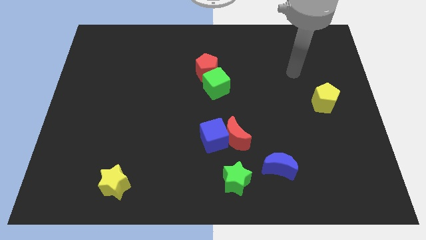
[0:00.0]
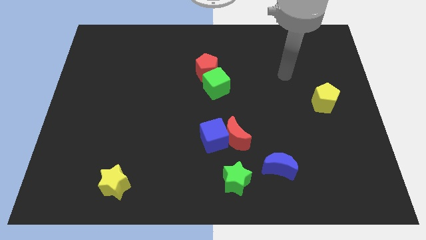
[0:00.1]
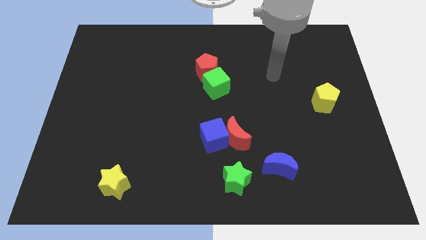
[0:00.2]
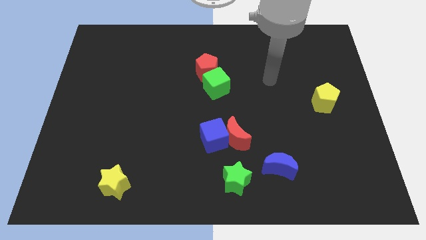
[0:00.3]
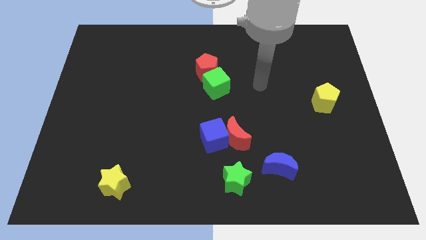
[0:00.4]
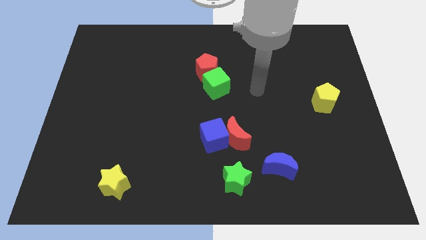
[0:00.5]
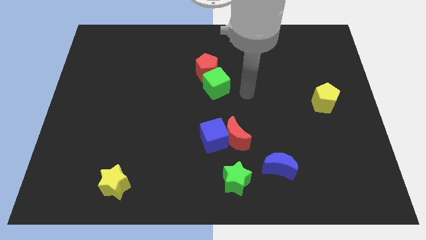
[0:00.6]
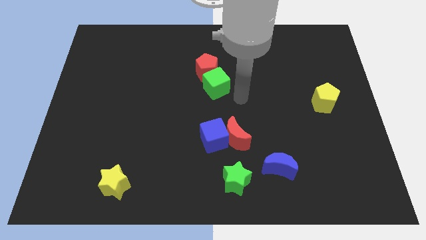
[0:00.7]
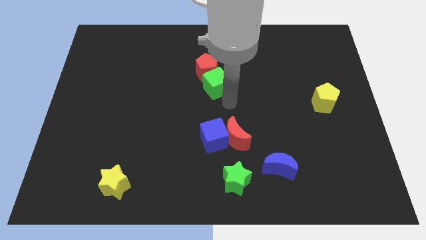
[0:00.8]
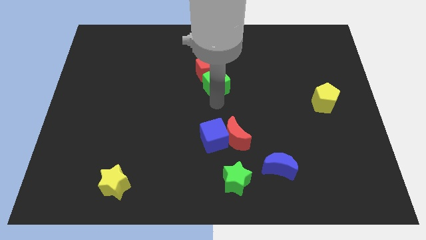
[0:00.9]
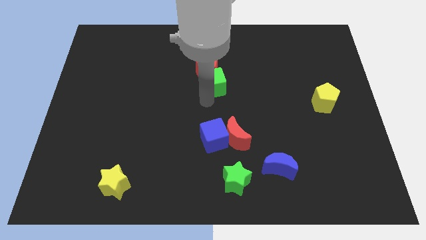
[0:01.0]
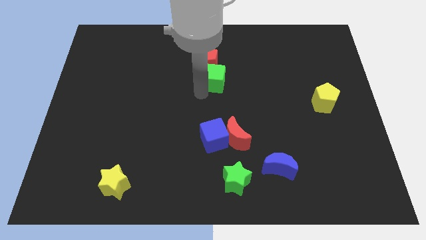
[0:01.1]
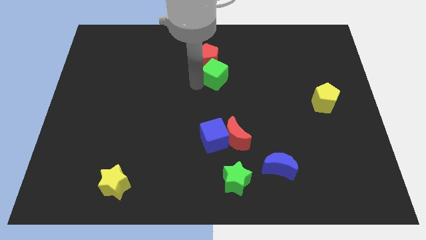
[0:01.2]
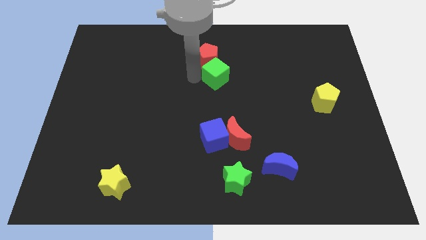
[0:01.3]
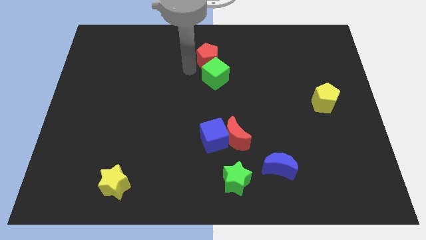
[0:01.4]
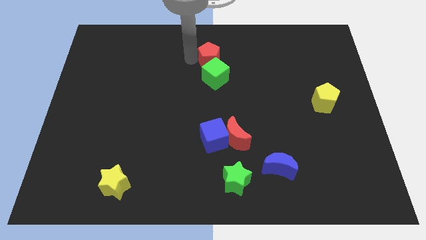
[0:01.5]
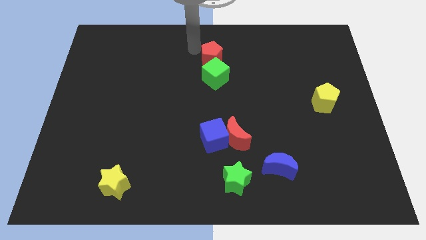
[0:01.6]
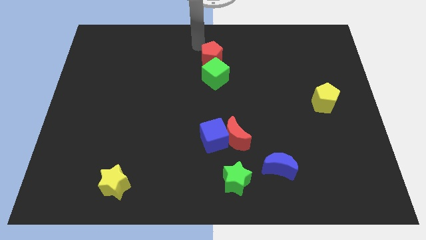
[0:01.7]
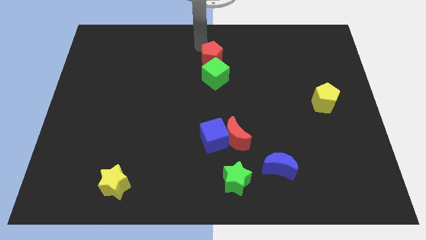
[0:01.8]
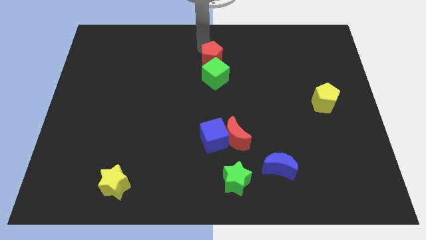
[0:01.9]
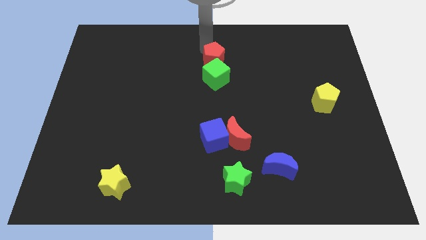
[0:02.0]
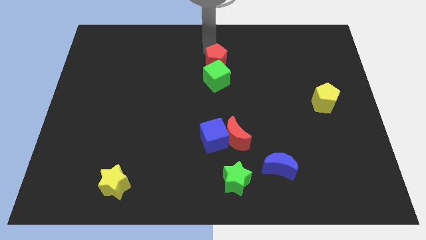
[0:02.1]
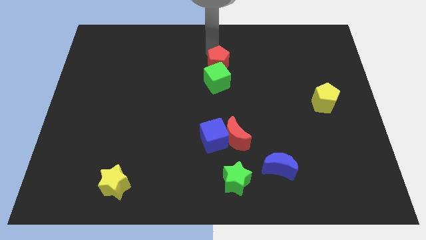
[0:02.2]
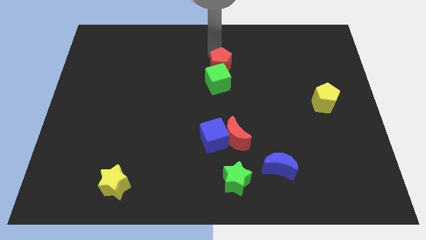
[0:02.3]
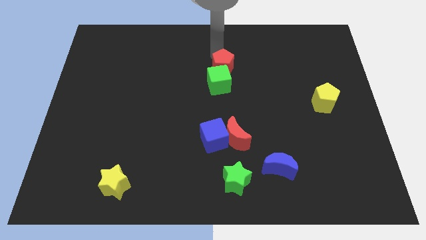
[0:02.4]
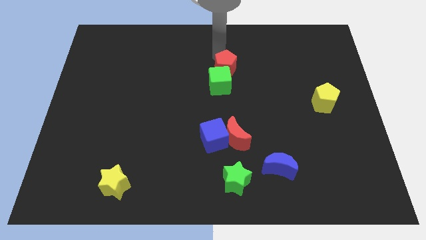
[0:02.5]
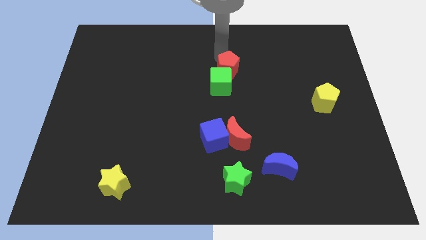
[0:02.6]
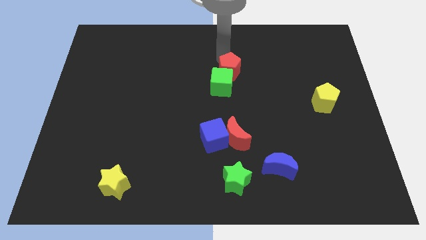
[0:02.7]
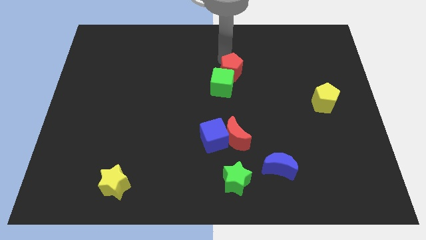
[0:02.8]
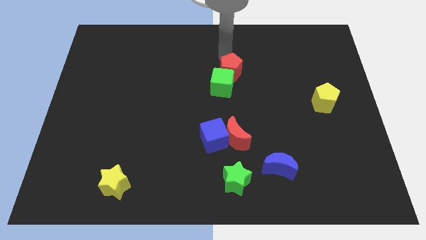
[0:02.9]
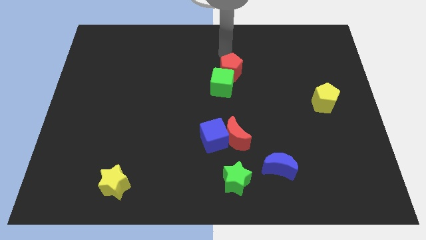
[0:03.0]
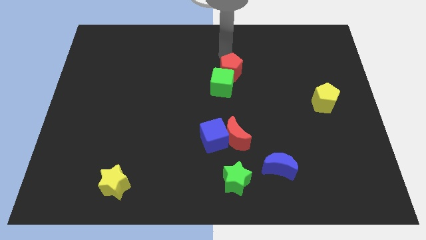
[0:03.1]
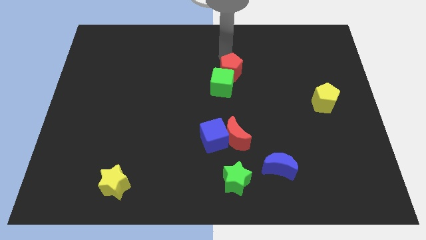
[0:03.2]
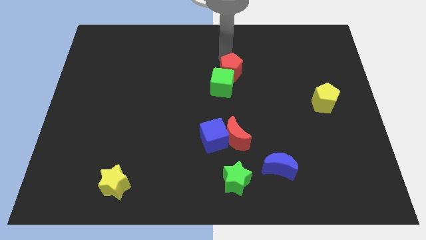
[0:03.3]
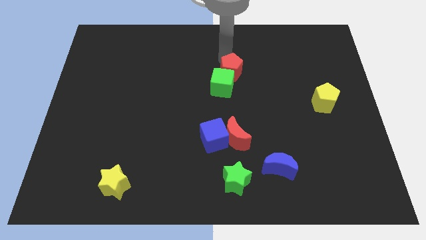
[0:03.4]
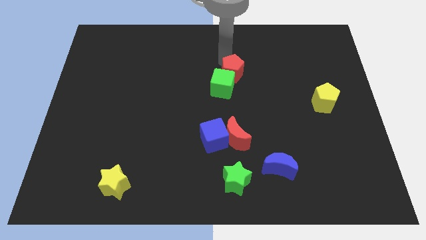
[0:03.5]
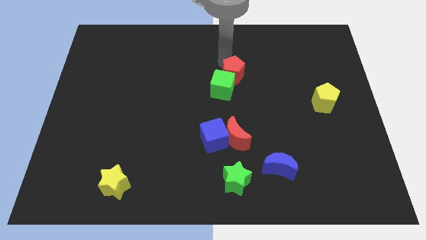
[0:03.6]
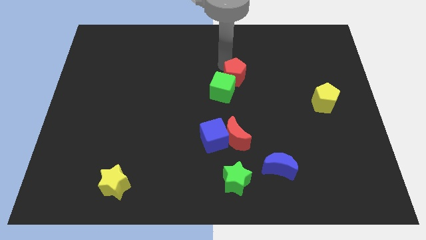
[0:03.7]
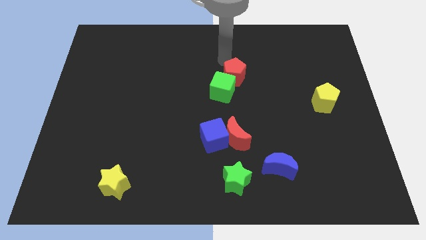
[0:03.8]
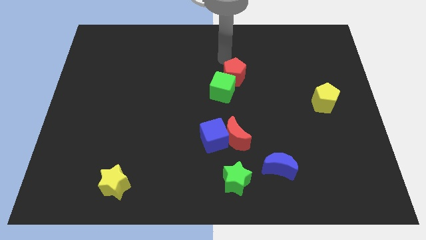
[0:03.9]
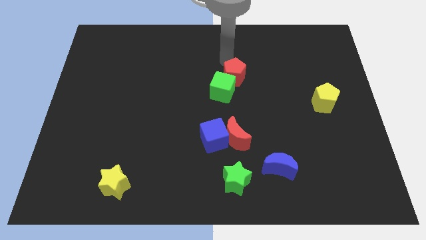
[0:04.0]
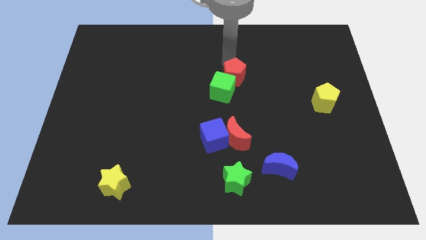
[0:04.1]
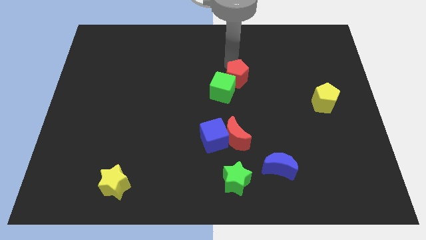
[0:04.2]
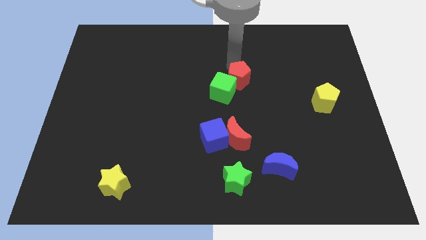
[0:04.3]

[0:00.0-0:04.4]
move the red pentagon a bit downwards and right

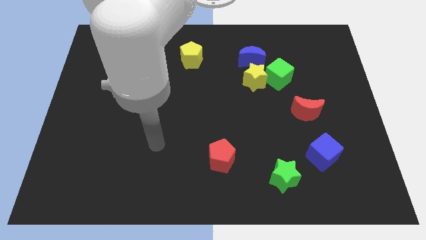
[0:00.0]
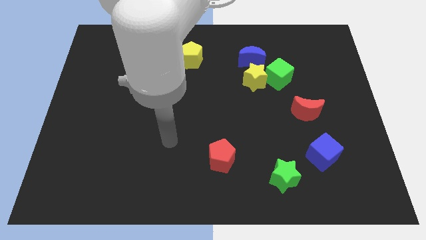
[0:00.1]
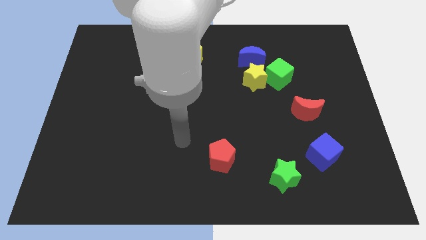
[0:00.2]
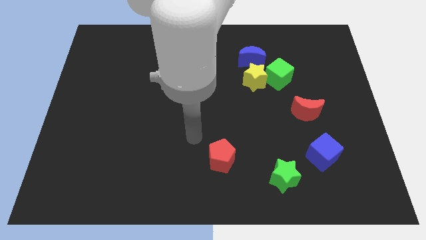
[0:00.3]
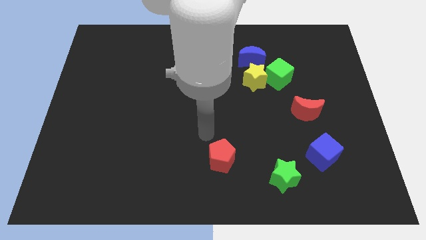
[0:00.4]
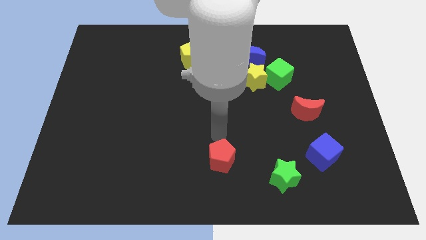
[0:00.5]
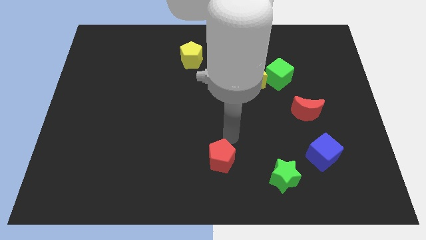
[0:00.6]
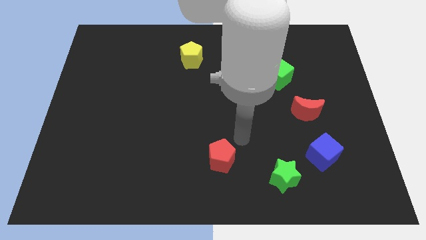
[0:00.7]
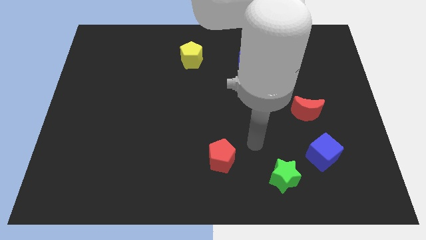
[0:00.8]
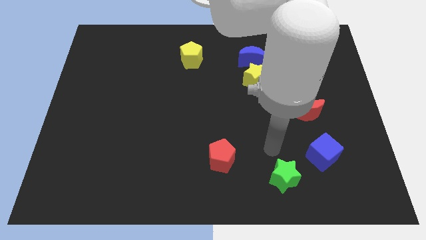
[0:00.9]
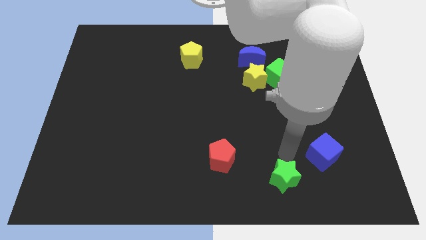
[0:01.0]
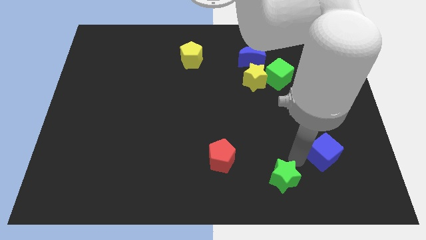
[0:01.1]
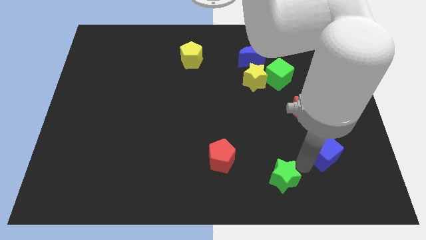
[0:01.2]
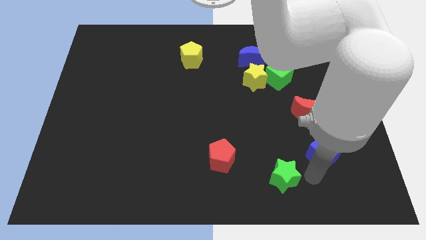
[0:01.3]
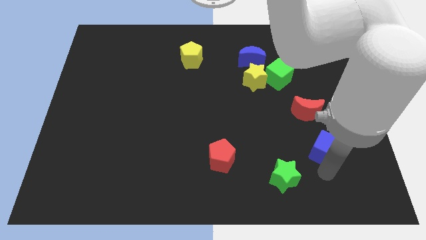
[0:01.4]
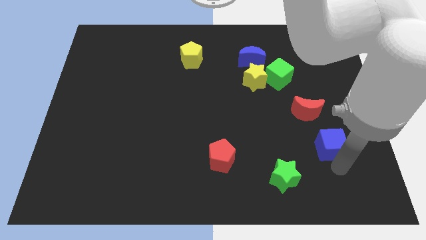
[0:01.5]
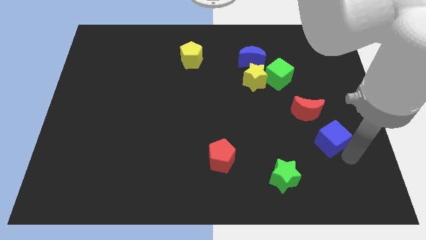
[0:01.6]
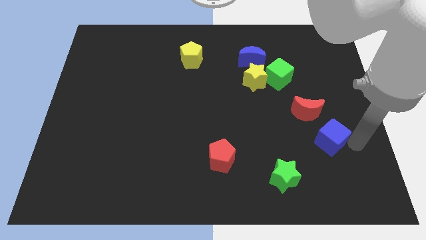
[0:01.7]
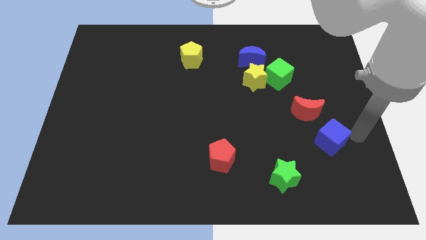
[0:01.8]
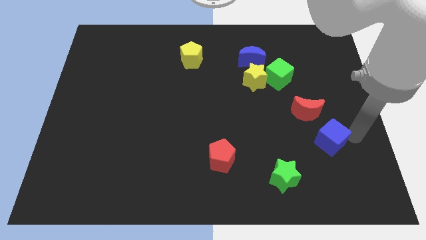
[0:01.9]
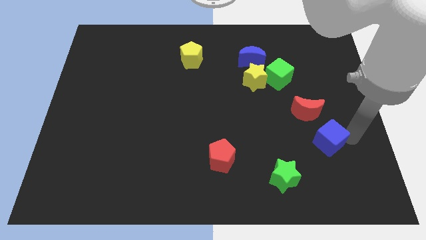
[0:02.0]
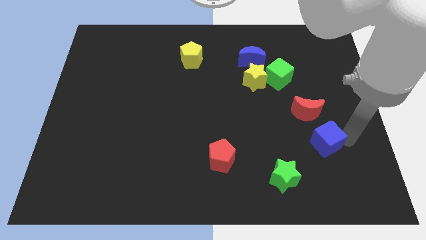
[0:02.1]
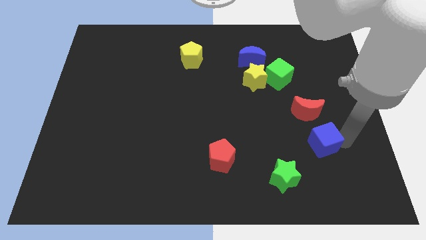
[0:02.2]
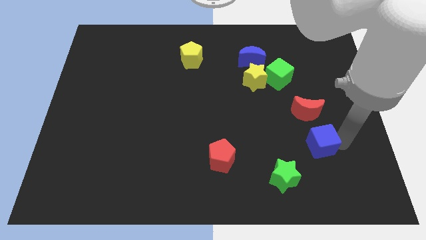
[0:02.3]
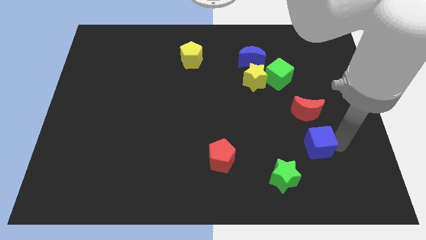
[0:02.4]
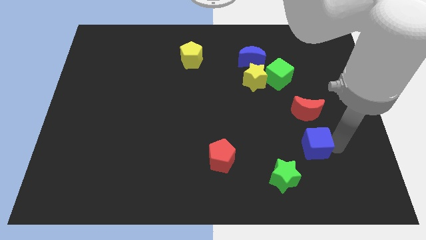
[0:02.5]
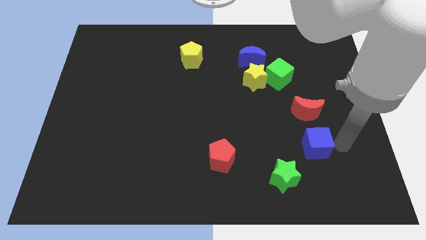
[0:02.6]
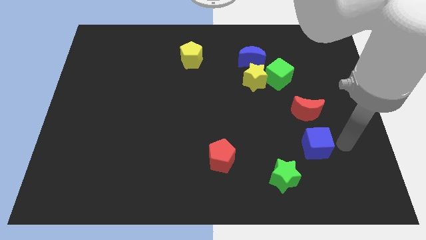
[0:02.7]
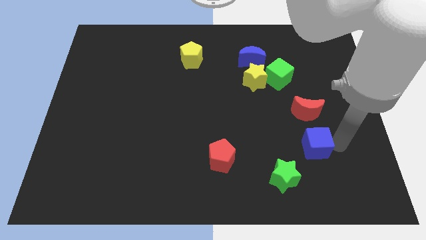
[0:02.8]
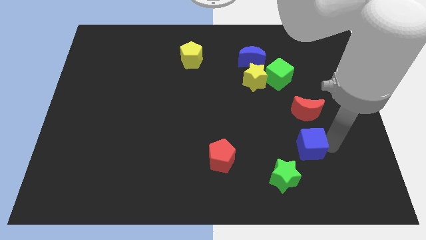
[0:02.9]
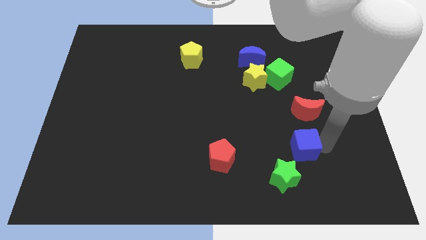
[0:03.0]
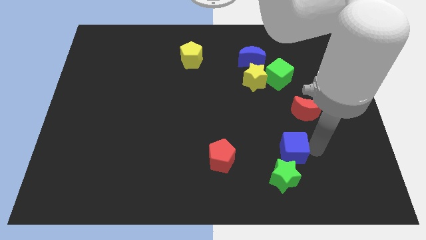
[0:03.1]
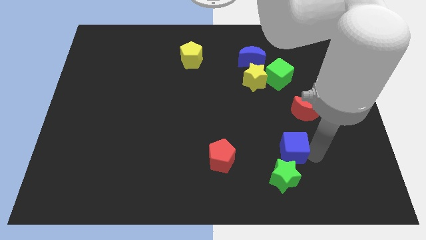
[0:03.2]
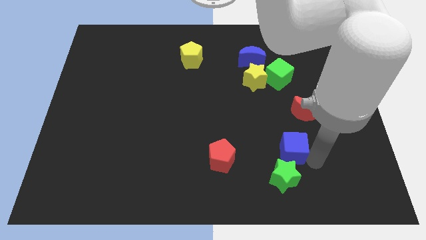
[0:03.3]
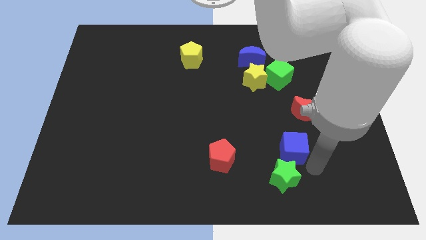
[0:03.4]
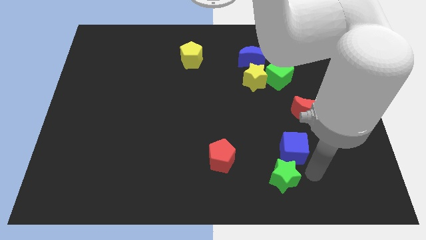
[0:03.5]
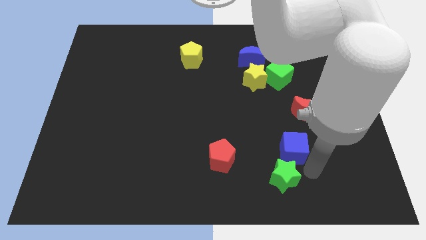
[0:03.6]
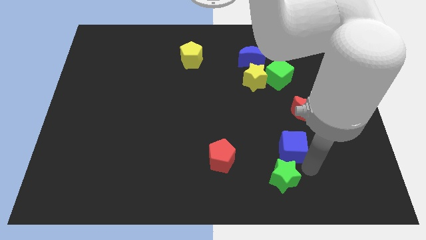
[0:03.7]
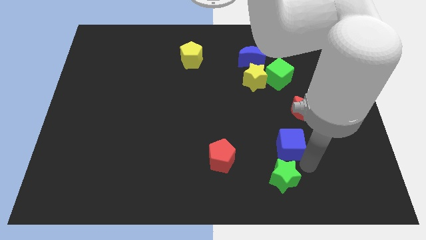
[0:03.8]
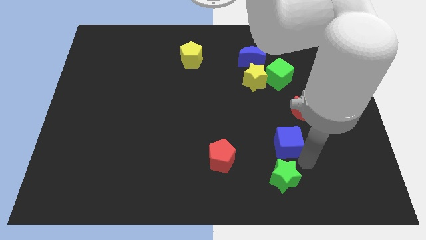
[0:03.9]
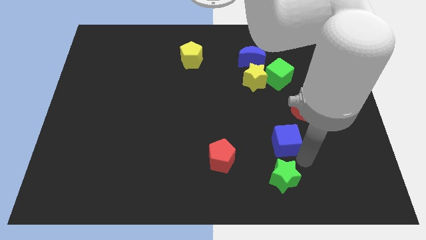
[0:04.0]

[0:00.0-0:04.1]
move the blue cube up and left diagonally a little
